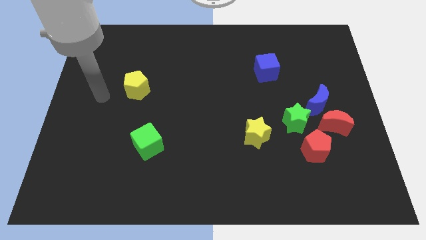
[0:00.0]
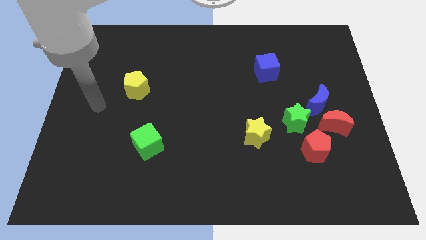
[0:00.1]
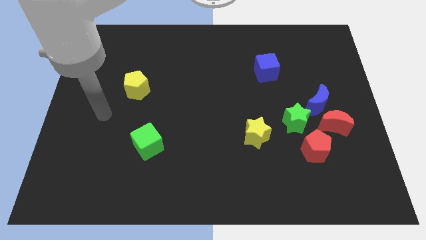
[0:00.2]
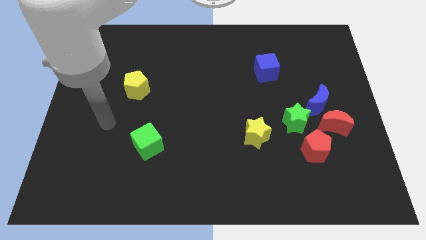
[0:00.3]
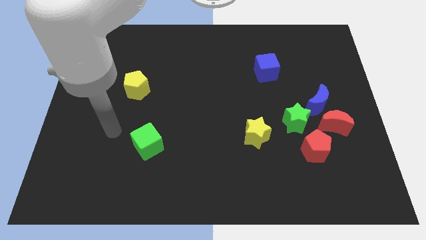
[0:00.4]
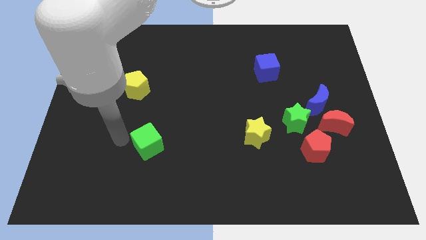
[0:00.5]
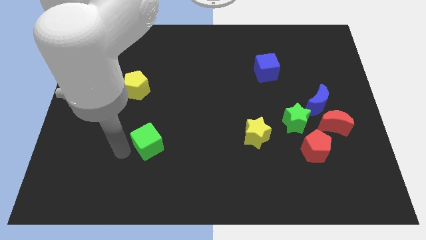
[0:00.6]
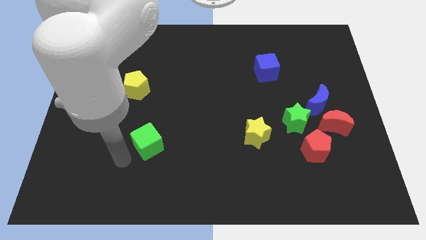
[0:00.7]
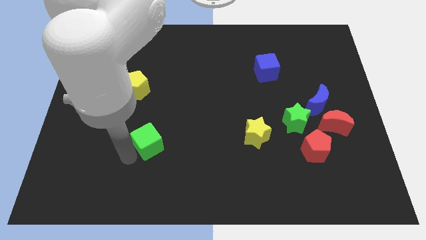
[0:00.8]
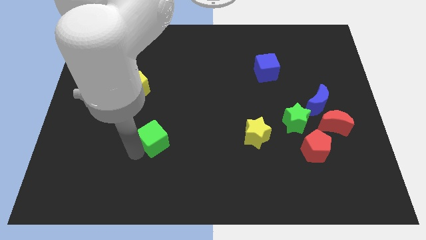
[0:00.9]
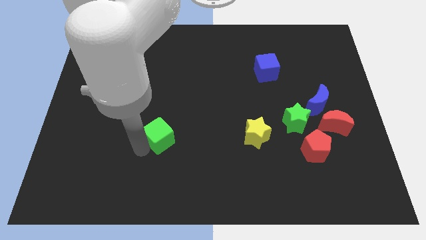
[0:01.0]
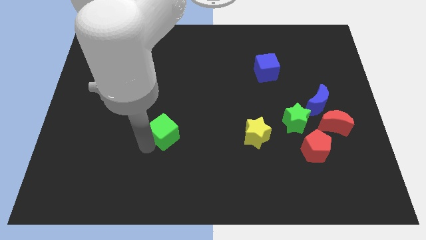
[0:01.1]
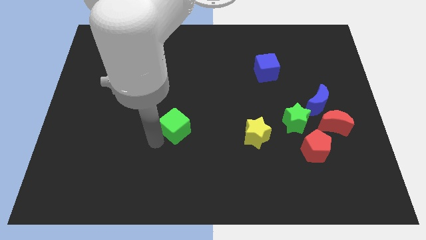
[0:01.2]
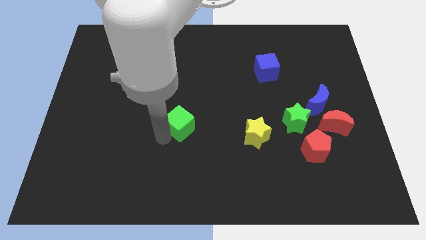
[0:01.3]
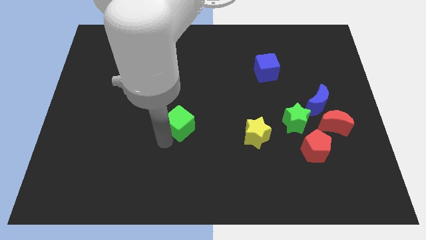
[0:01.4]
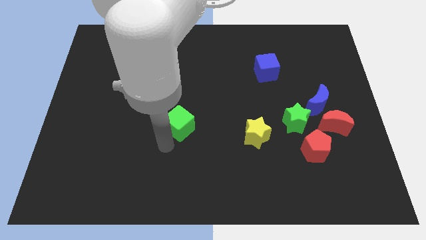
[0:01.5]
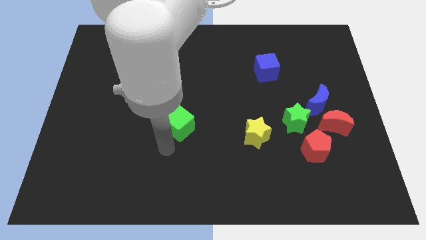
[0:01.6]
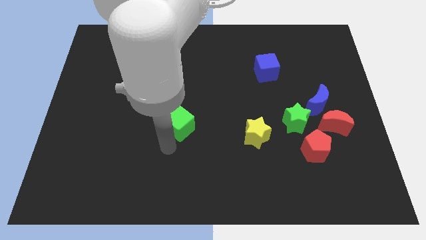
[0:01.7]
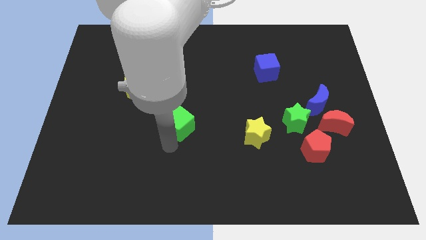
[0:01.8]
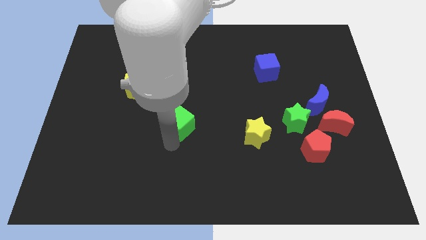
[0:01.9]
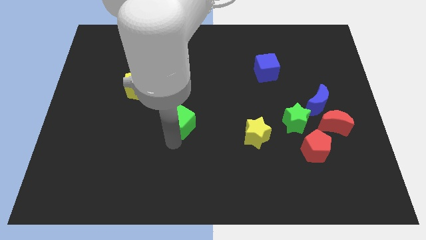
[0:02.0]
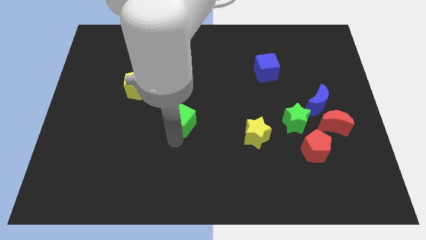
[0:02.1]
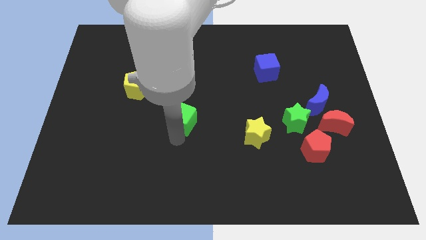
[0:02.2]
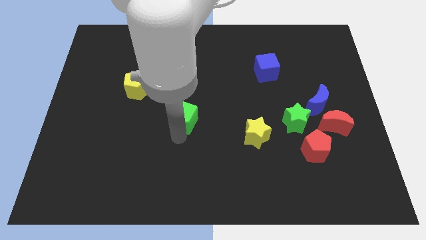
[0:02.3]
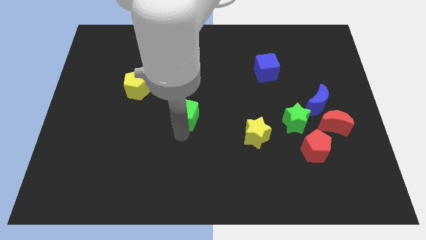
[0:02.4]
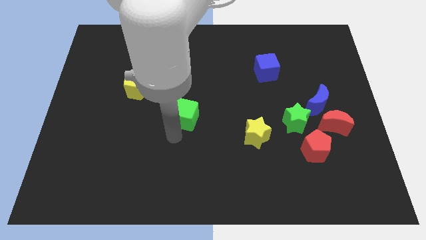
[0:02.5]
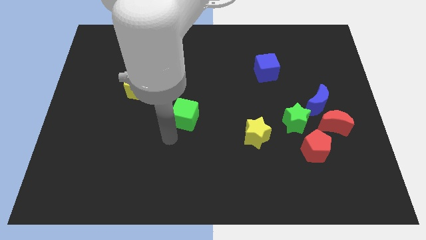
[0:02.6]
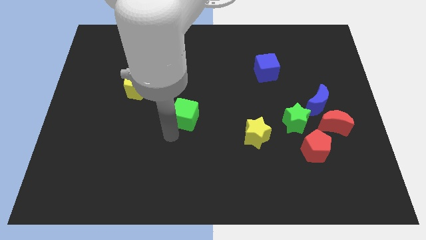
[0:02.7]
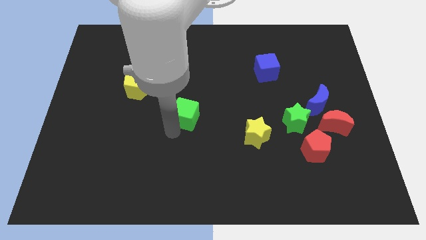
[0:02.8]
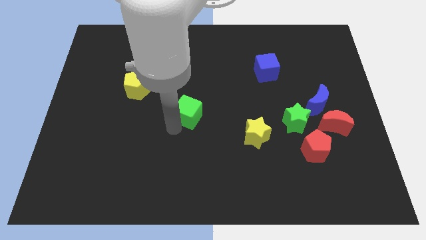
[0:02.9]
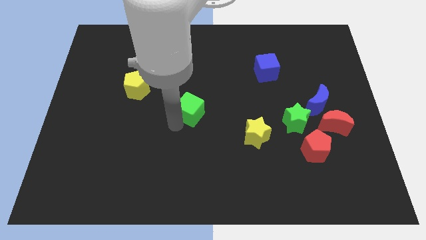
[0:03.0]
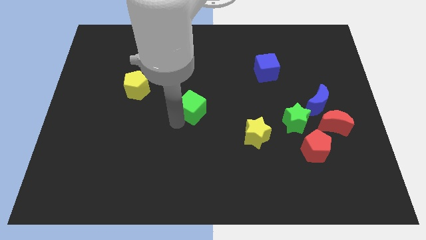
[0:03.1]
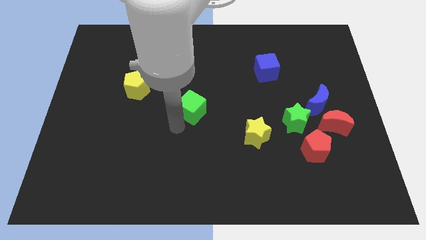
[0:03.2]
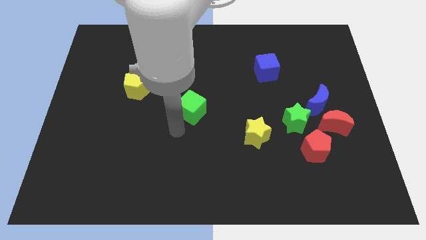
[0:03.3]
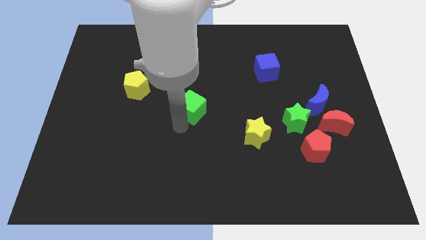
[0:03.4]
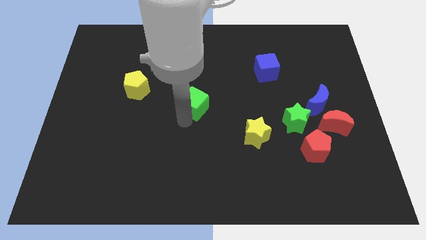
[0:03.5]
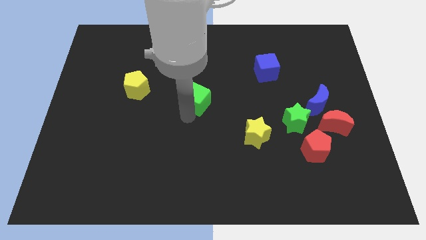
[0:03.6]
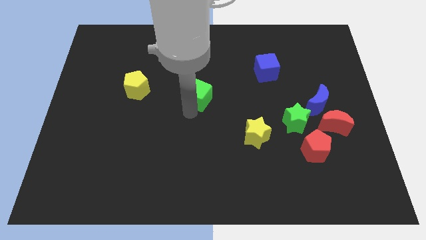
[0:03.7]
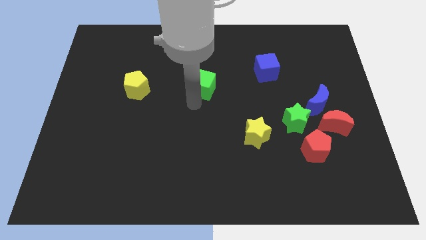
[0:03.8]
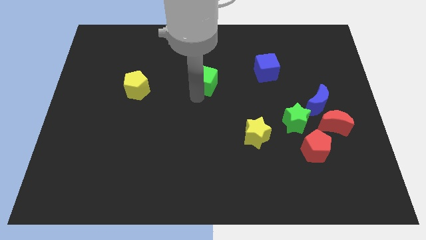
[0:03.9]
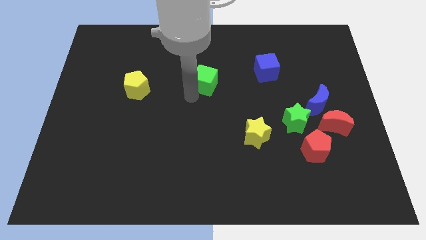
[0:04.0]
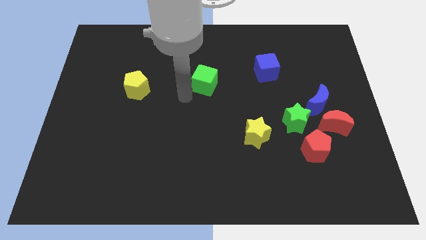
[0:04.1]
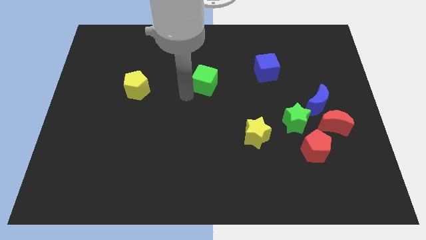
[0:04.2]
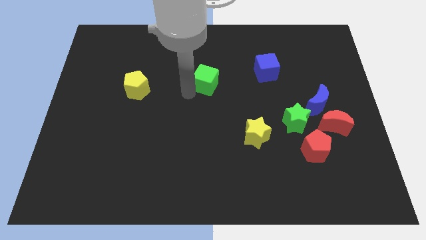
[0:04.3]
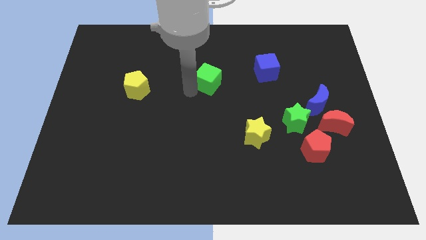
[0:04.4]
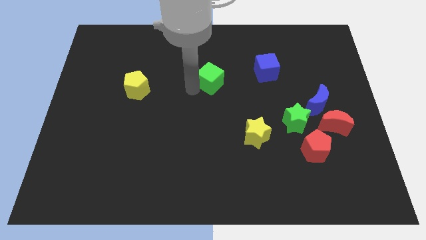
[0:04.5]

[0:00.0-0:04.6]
move the green cube to the left of the blue cube

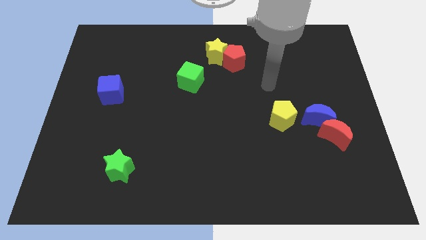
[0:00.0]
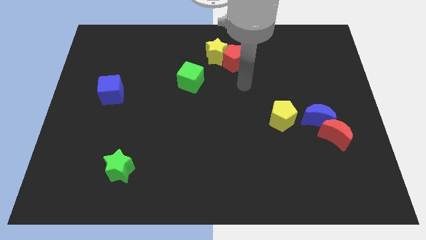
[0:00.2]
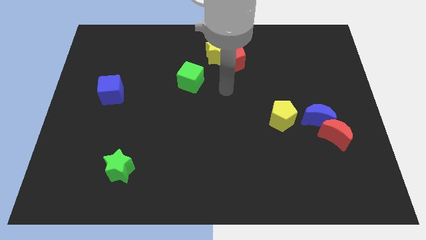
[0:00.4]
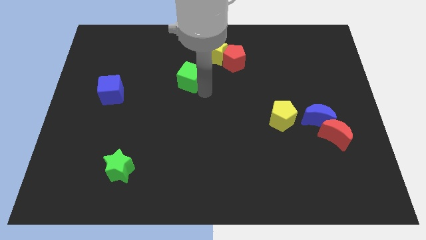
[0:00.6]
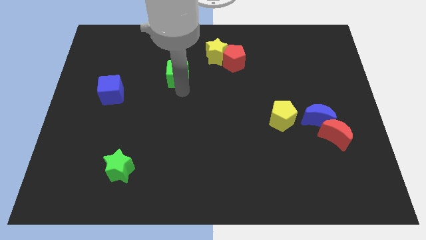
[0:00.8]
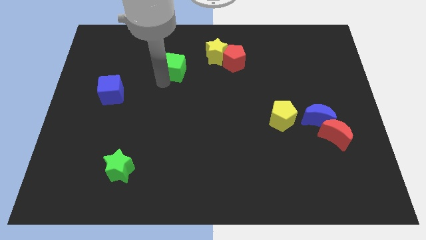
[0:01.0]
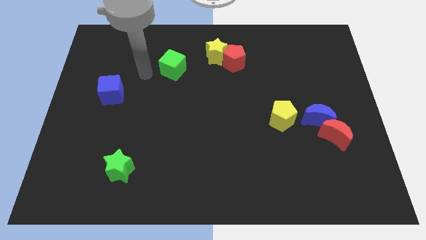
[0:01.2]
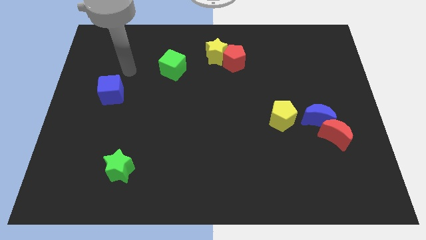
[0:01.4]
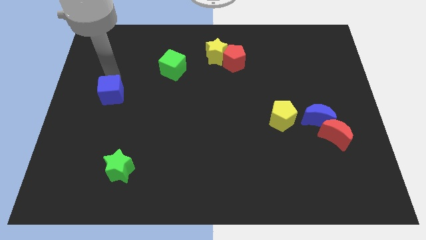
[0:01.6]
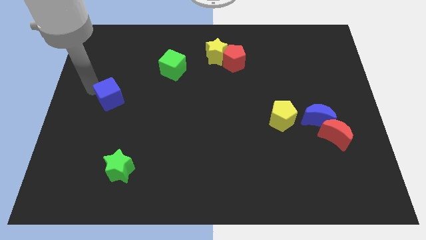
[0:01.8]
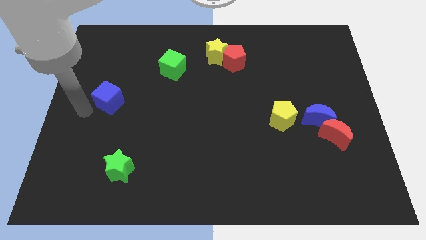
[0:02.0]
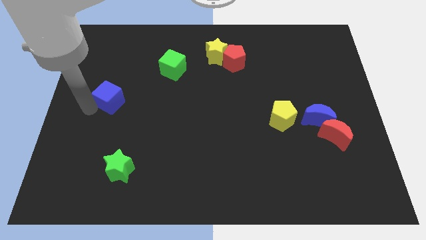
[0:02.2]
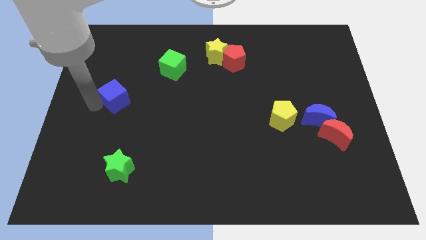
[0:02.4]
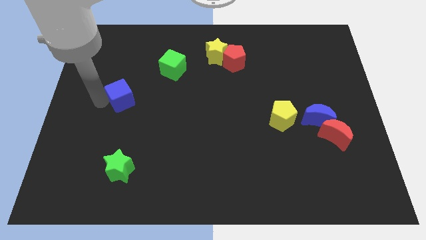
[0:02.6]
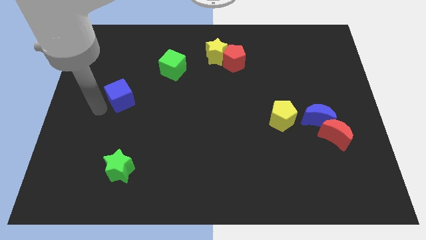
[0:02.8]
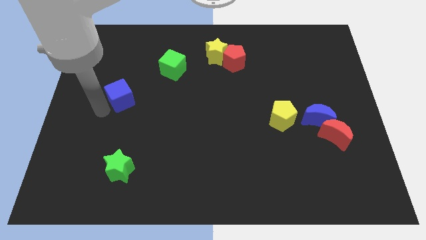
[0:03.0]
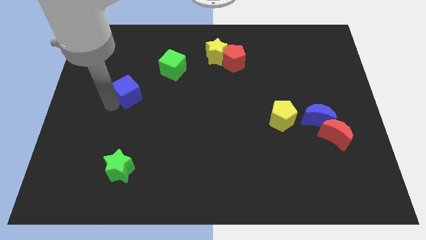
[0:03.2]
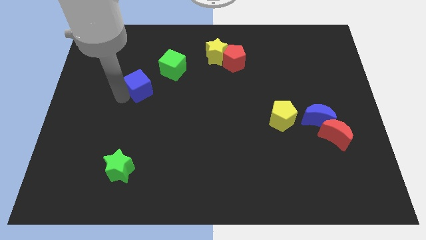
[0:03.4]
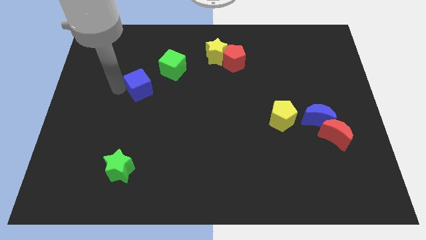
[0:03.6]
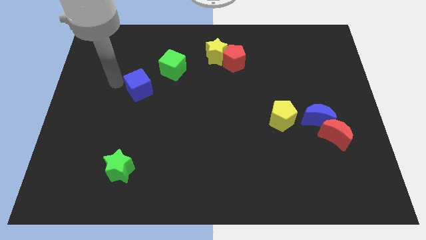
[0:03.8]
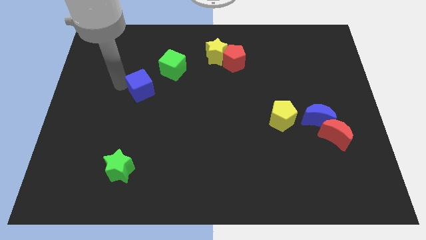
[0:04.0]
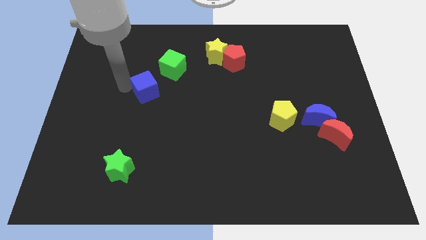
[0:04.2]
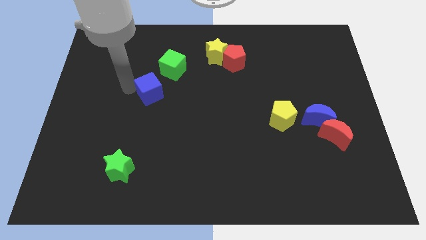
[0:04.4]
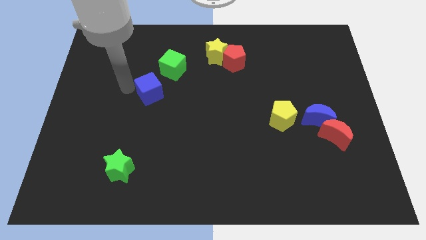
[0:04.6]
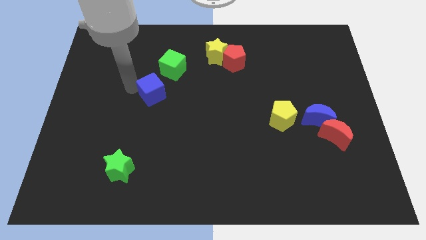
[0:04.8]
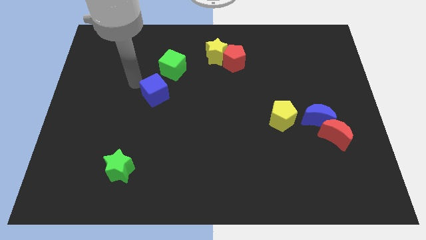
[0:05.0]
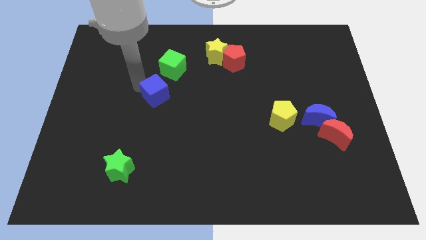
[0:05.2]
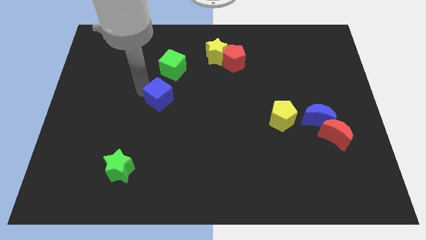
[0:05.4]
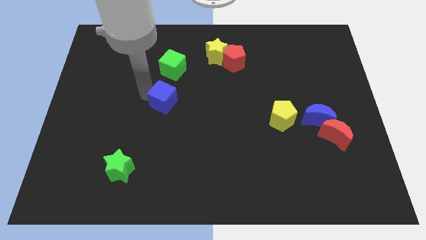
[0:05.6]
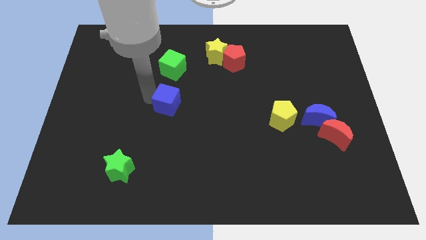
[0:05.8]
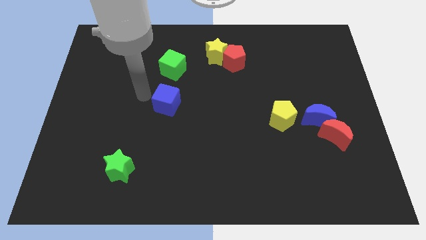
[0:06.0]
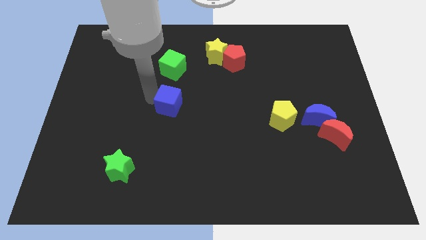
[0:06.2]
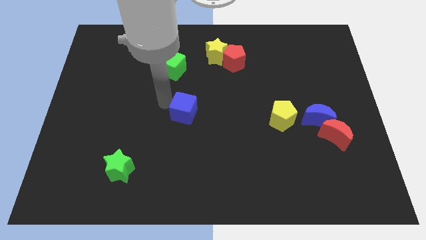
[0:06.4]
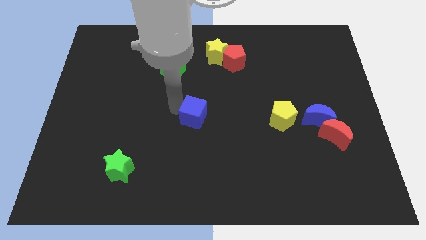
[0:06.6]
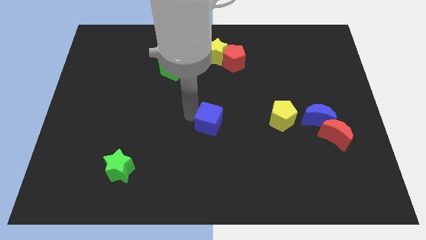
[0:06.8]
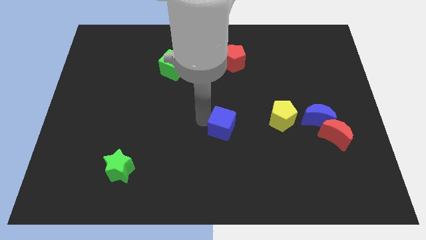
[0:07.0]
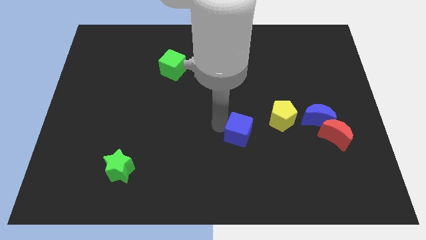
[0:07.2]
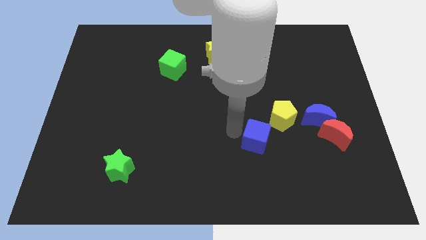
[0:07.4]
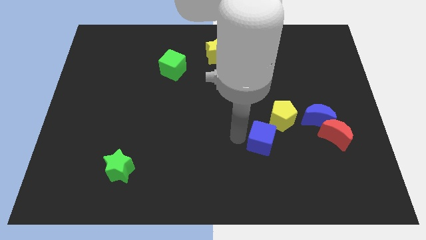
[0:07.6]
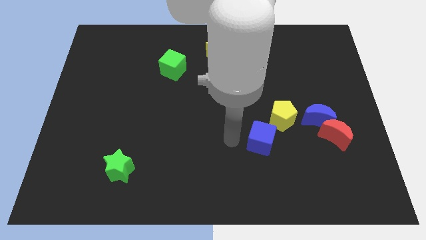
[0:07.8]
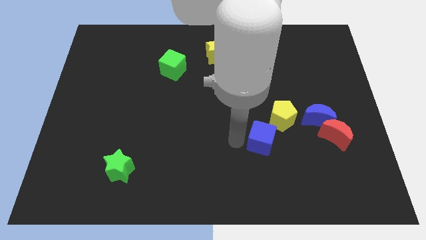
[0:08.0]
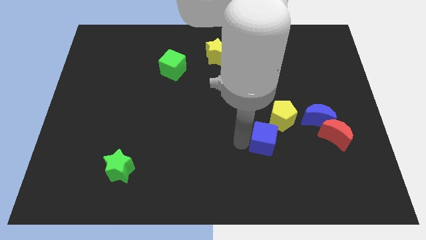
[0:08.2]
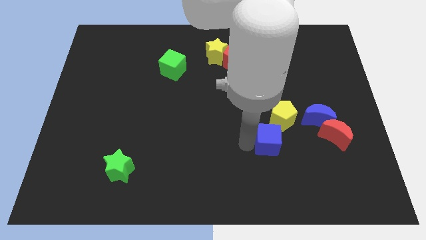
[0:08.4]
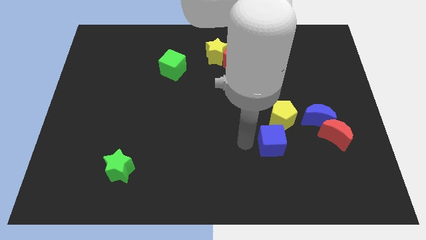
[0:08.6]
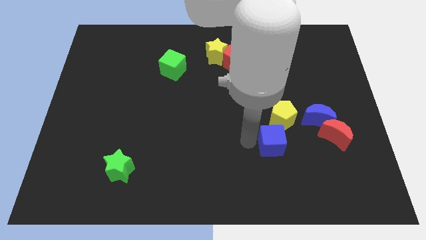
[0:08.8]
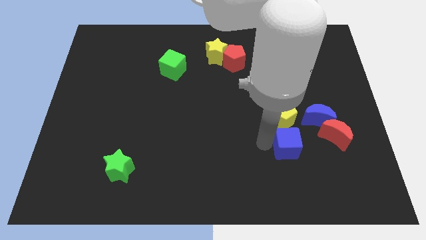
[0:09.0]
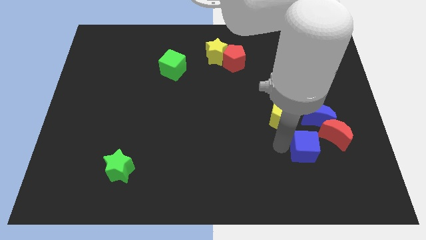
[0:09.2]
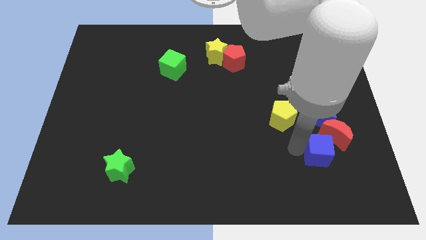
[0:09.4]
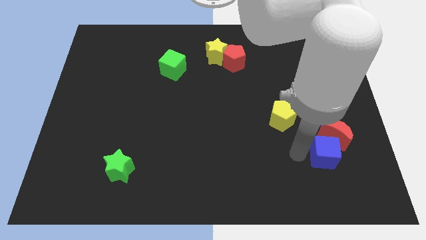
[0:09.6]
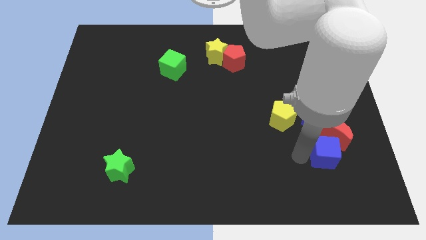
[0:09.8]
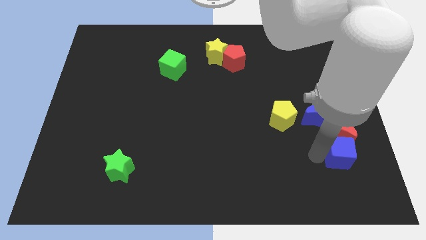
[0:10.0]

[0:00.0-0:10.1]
slide the blue cube diagonally down and to the right of the blue moon
